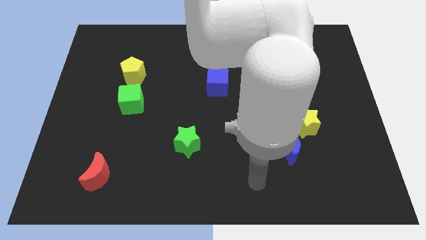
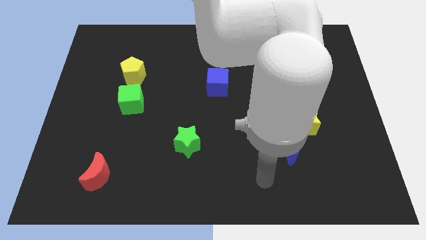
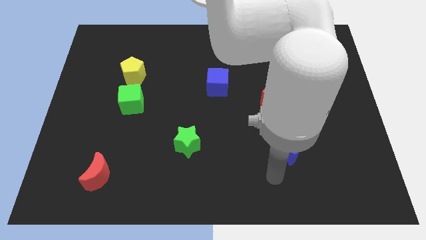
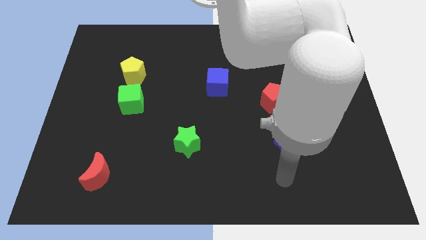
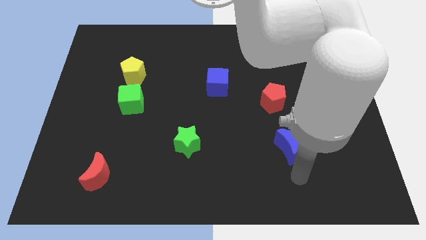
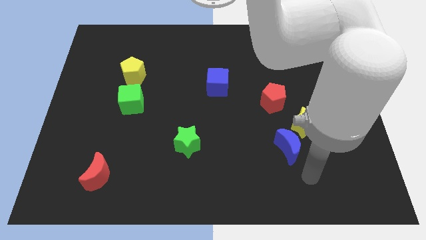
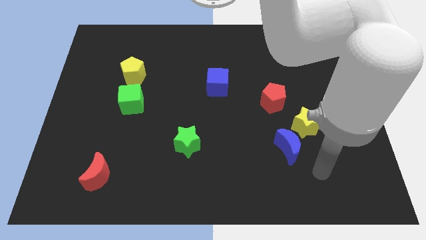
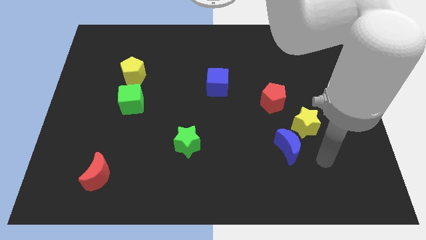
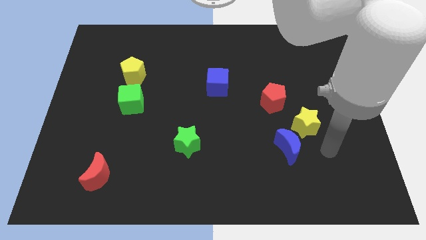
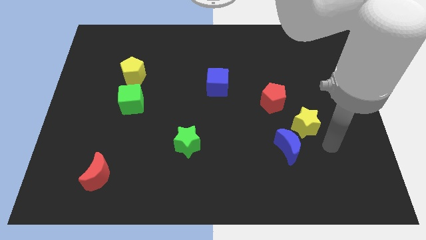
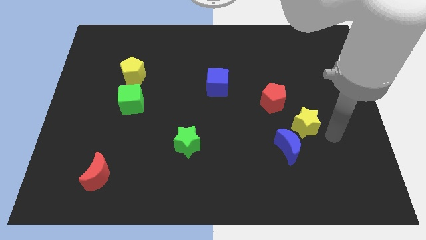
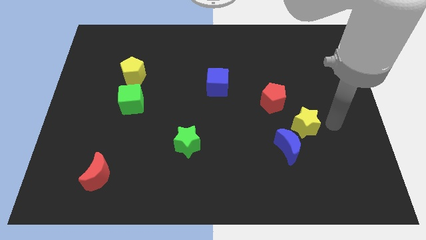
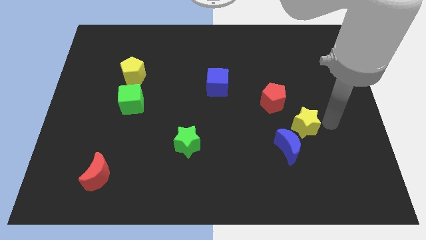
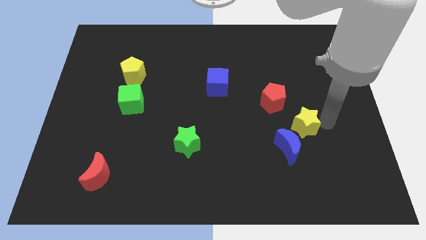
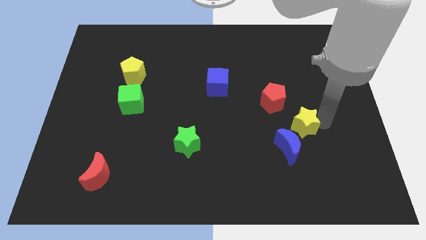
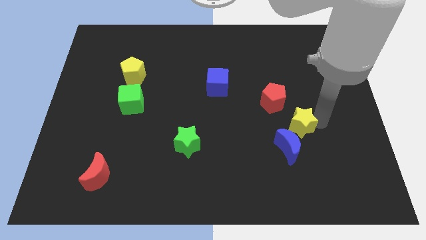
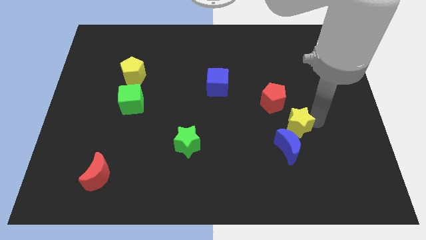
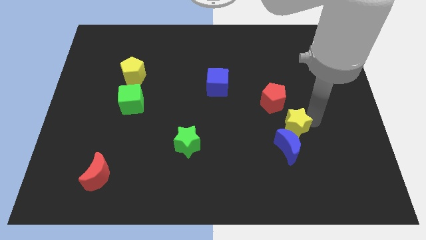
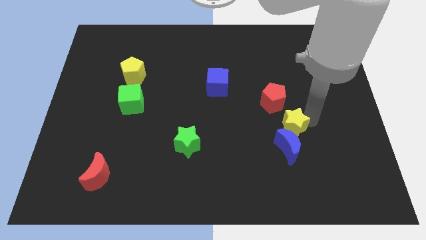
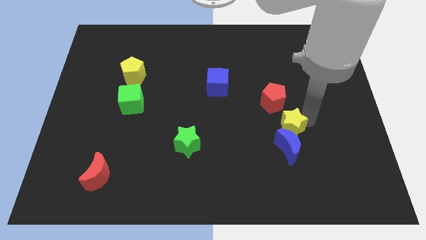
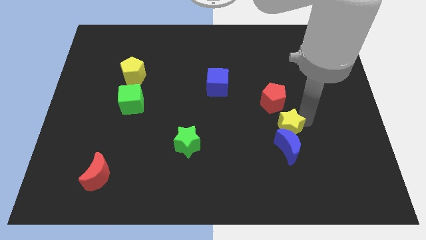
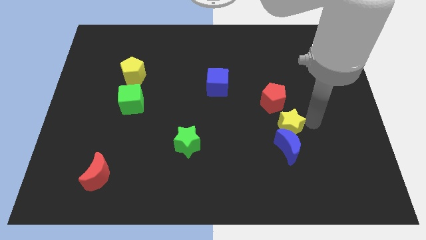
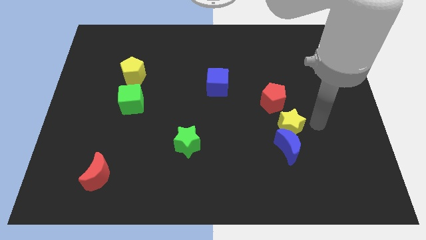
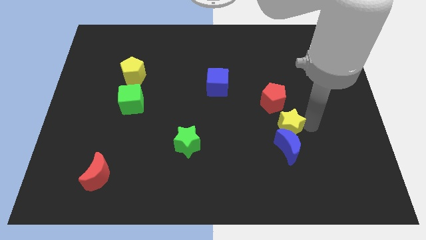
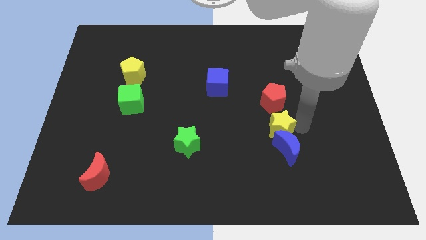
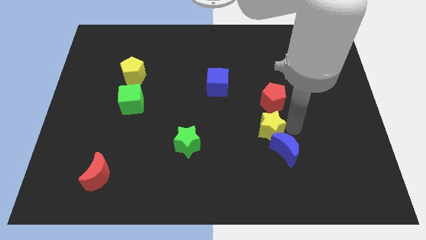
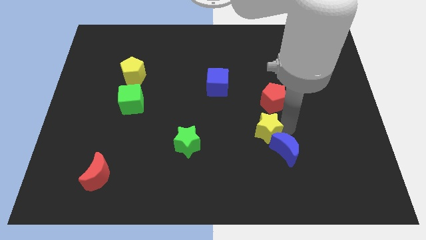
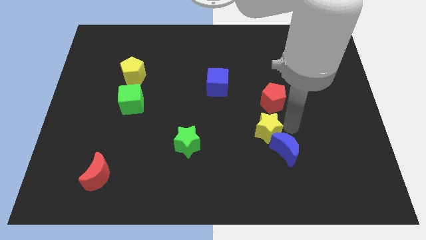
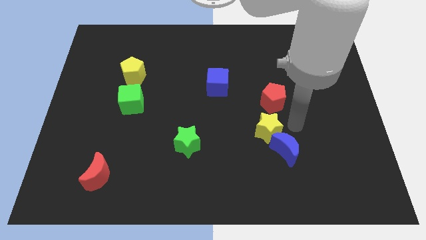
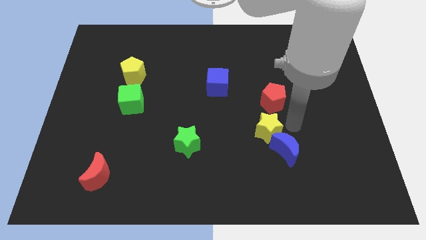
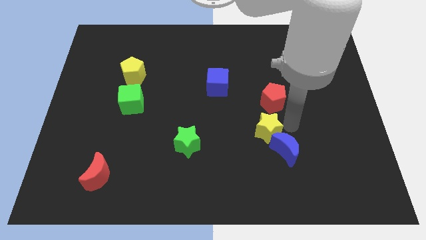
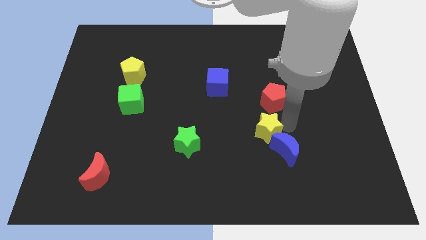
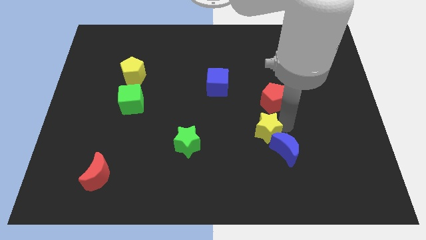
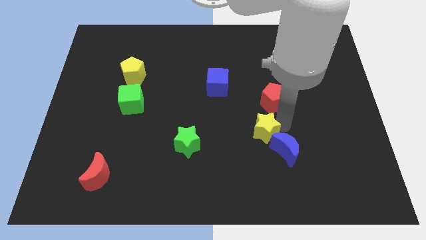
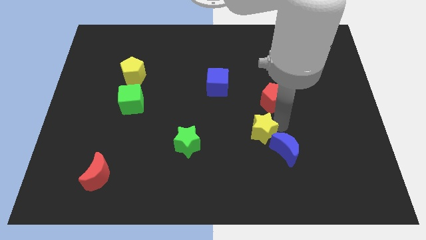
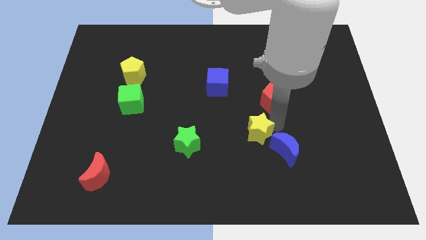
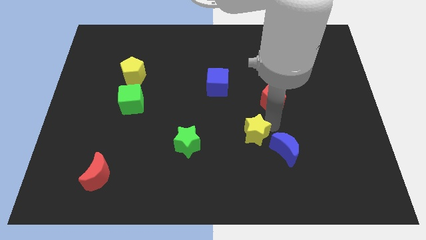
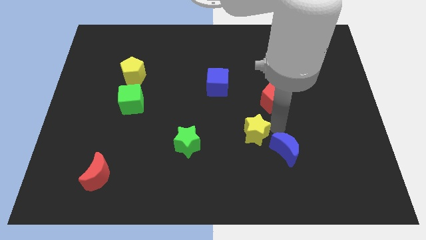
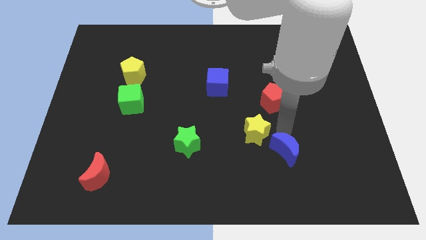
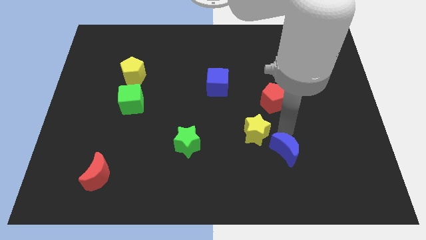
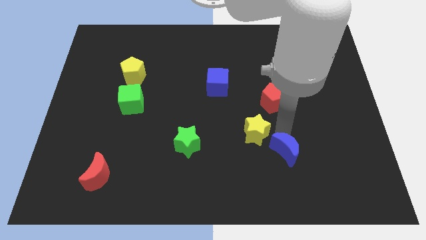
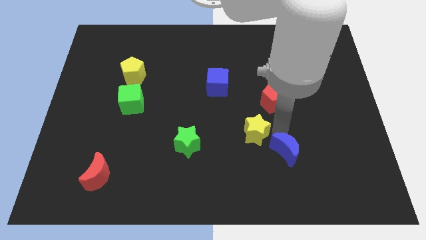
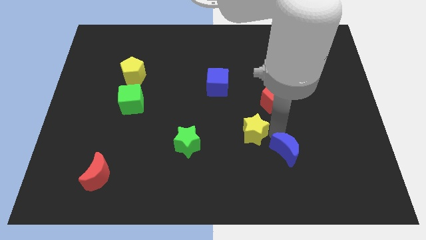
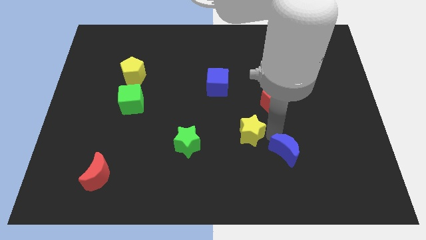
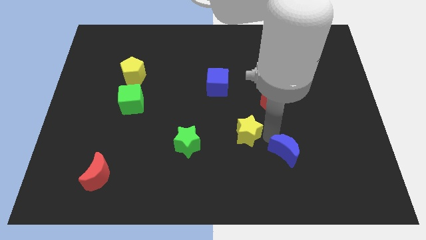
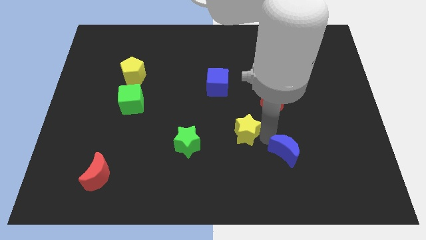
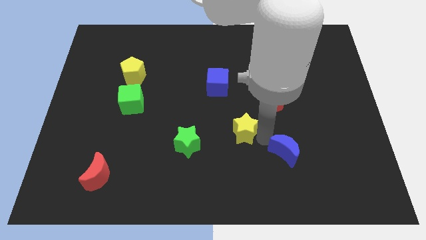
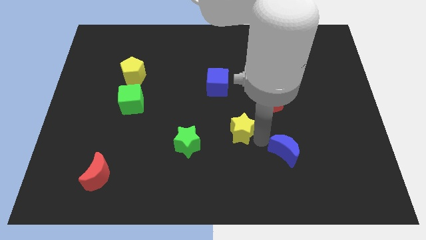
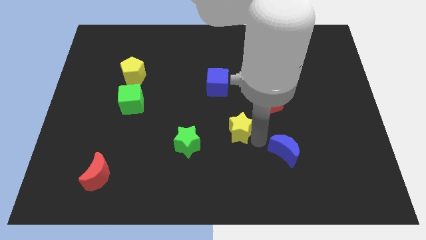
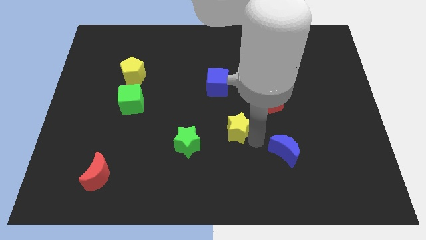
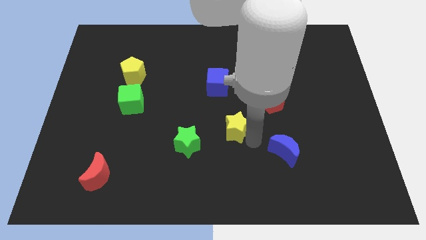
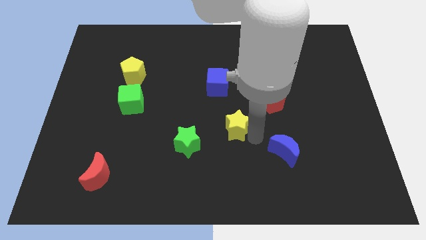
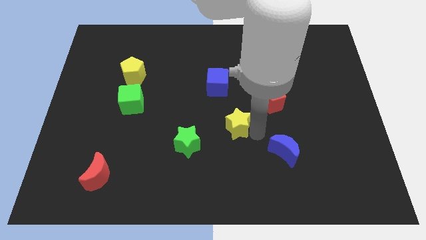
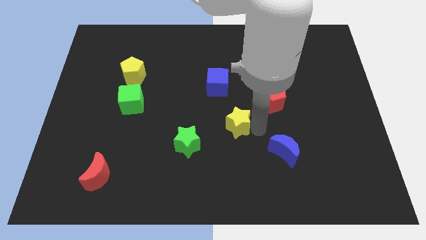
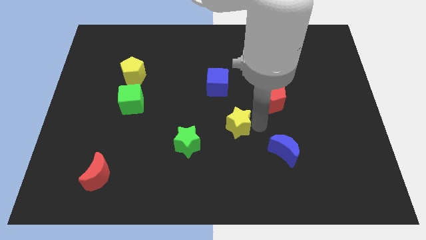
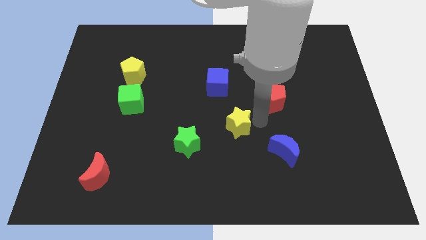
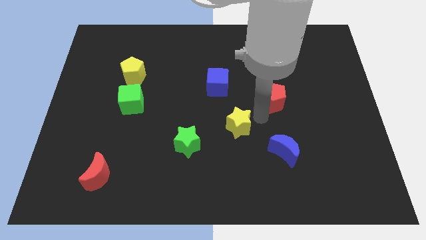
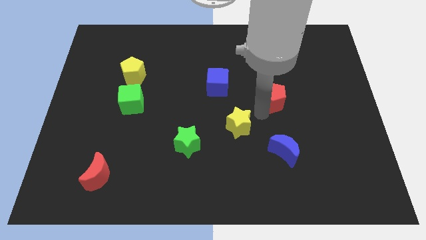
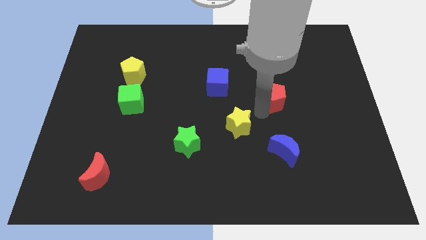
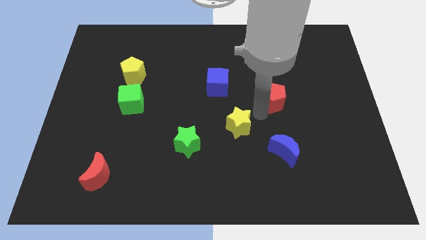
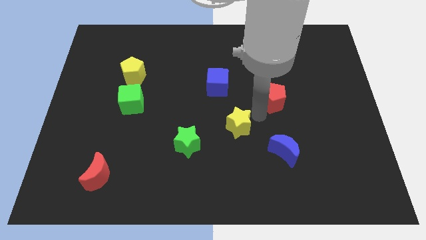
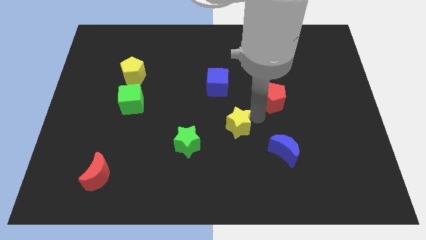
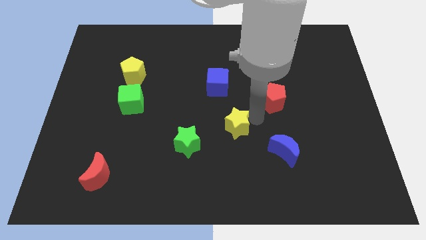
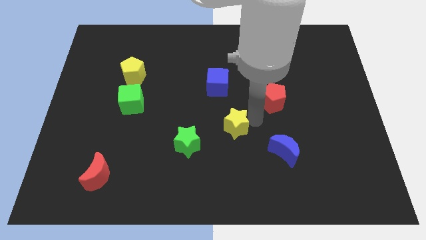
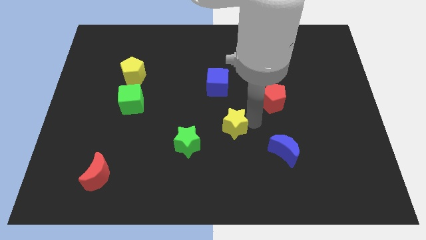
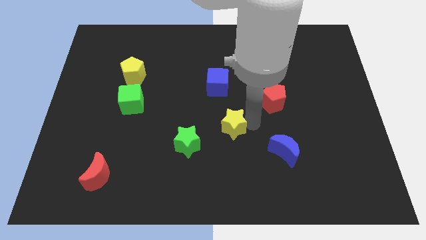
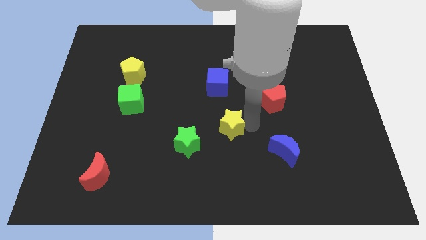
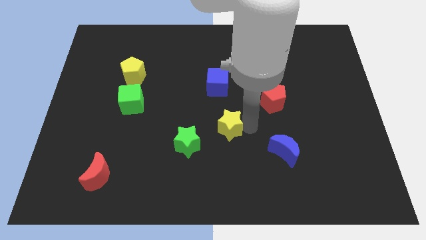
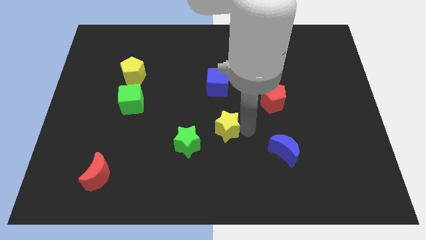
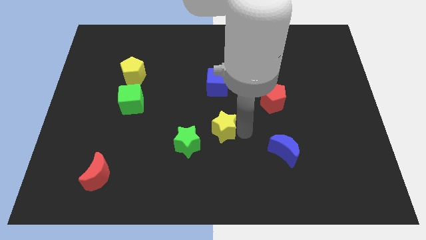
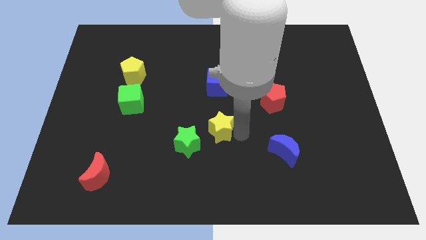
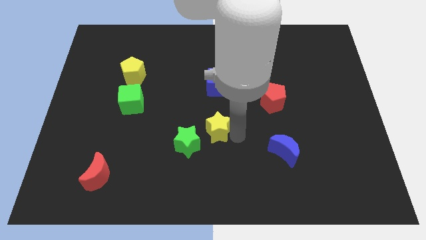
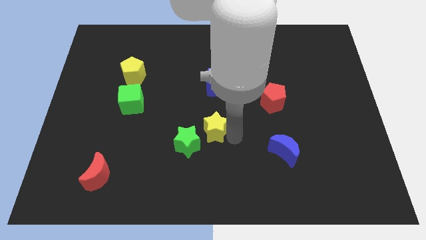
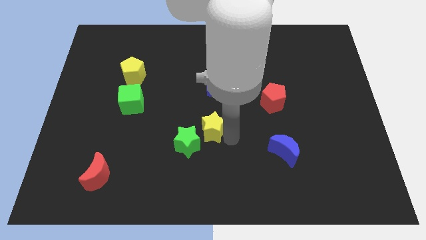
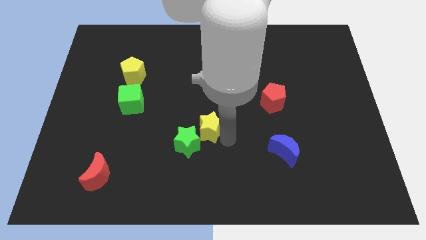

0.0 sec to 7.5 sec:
put the yellow star next to the green star
